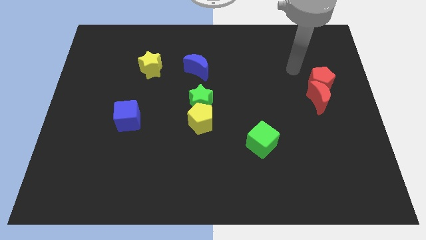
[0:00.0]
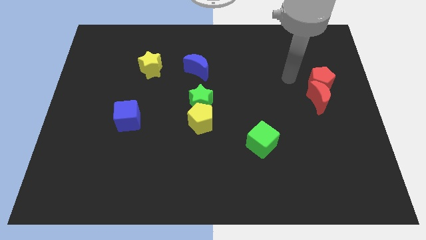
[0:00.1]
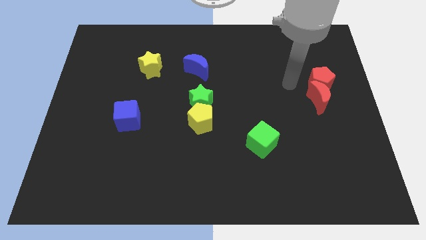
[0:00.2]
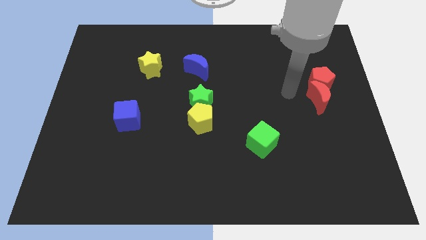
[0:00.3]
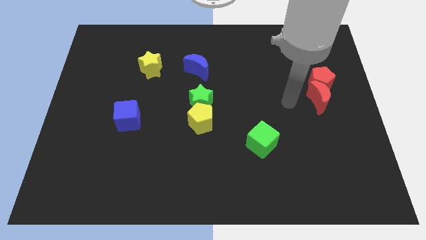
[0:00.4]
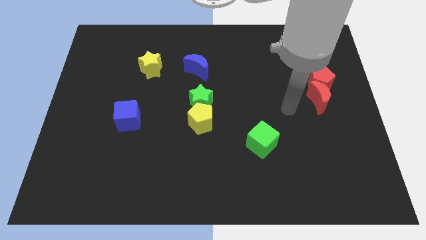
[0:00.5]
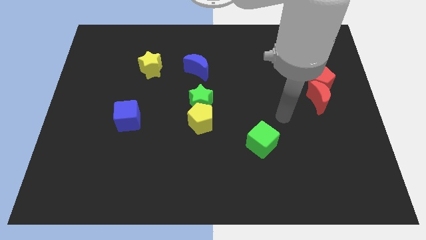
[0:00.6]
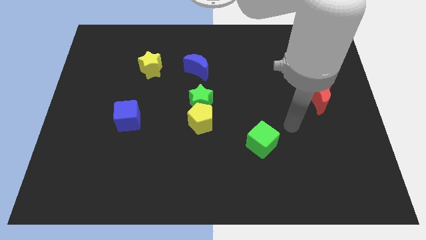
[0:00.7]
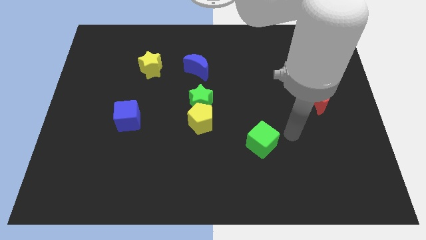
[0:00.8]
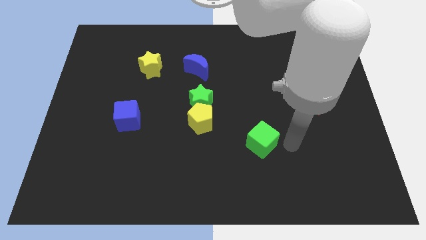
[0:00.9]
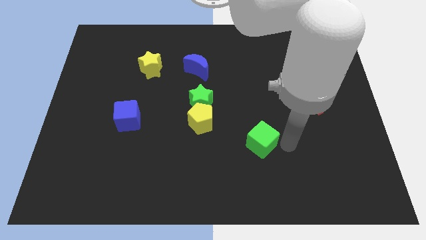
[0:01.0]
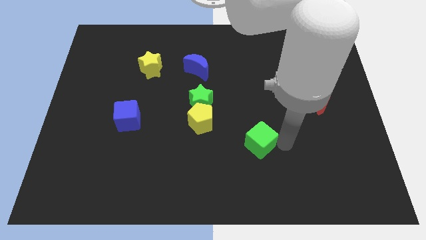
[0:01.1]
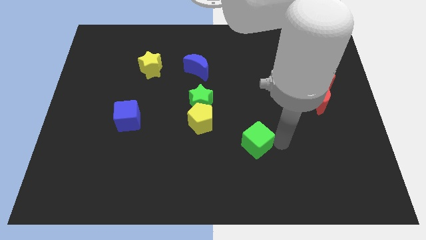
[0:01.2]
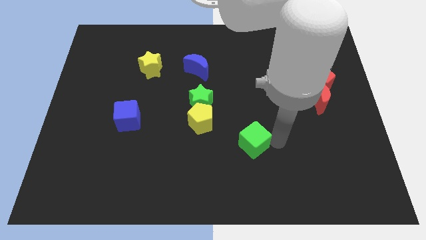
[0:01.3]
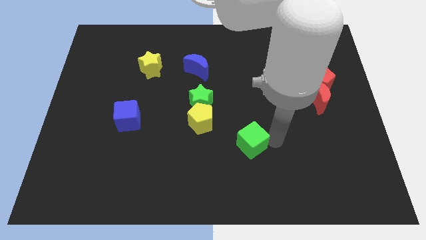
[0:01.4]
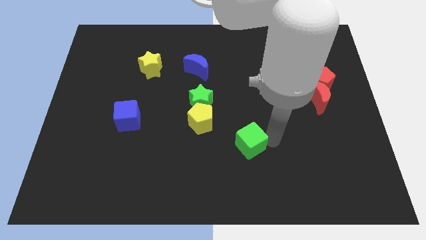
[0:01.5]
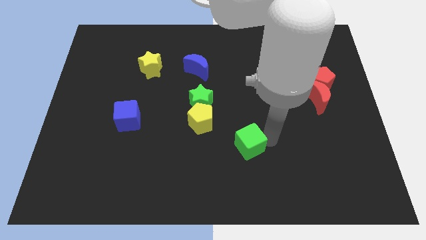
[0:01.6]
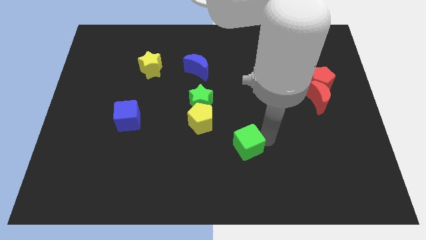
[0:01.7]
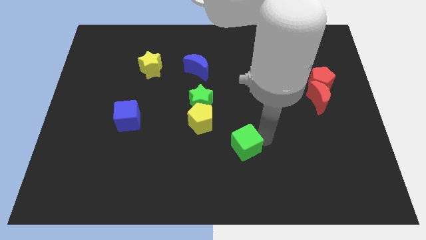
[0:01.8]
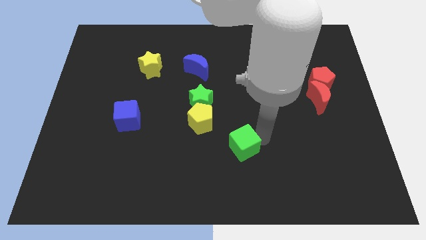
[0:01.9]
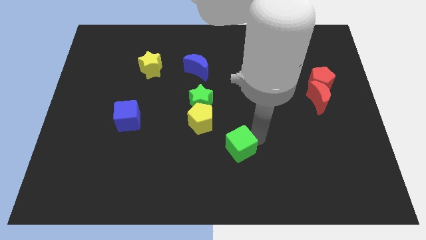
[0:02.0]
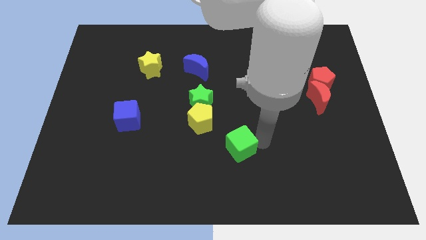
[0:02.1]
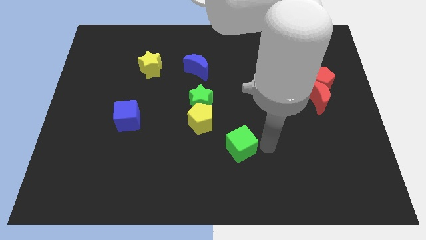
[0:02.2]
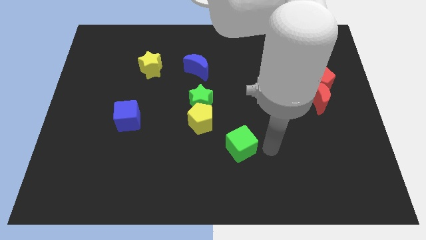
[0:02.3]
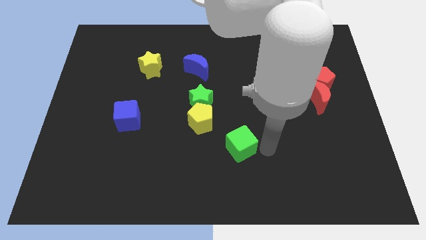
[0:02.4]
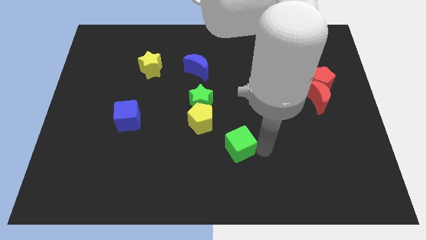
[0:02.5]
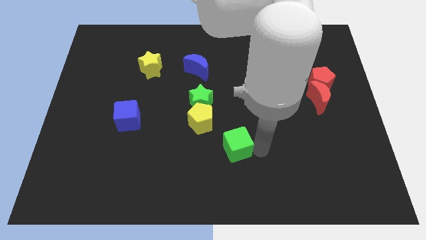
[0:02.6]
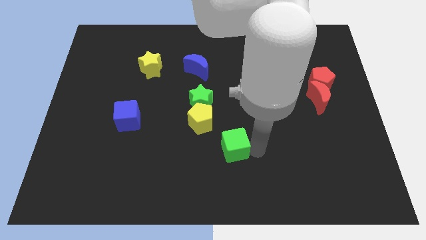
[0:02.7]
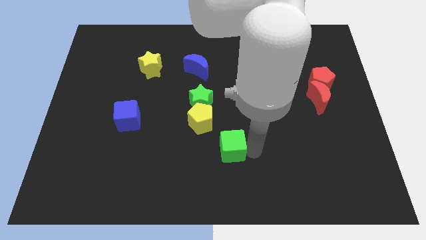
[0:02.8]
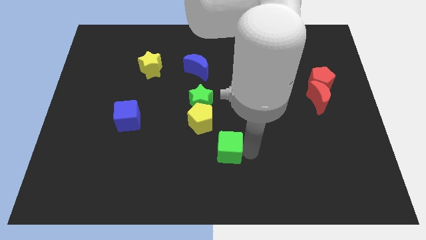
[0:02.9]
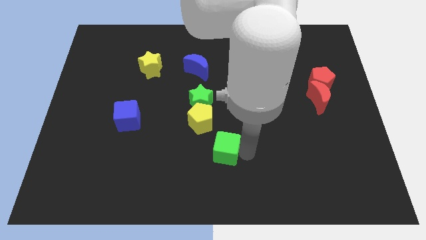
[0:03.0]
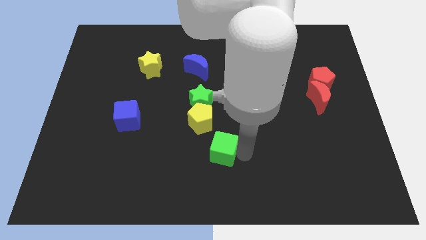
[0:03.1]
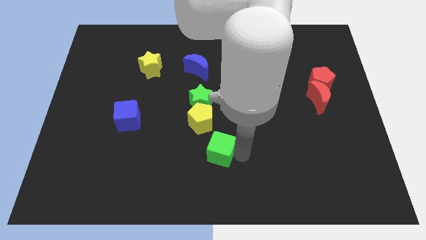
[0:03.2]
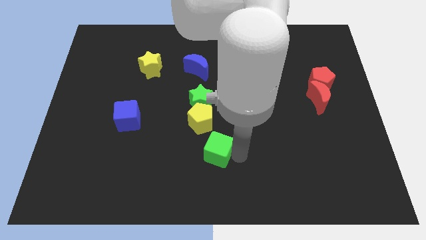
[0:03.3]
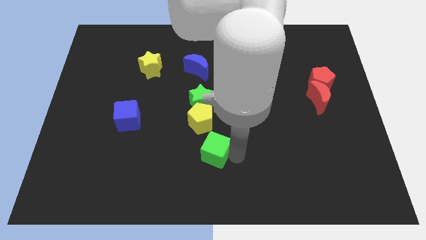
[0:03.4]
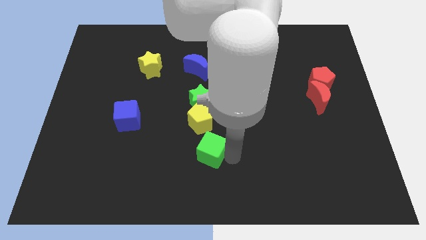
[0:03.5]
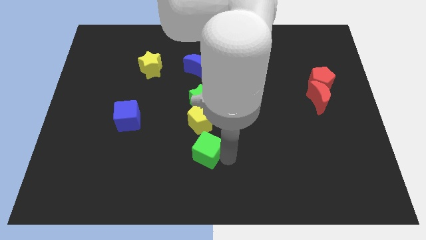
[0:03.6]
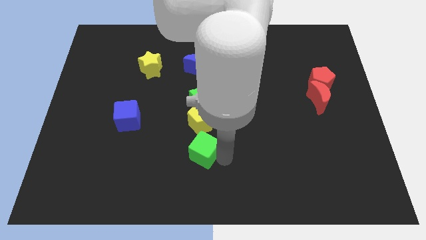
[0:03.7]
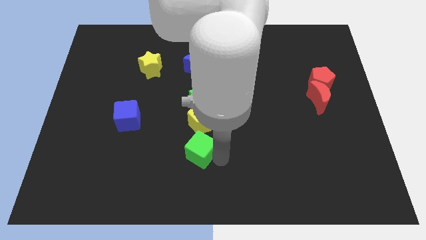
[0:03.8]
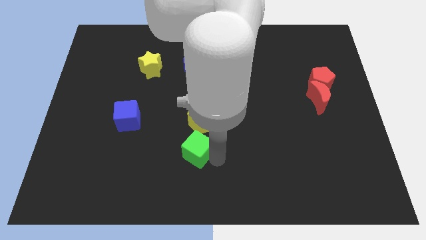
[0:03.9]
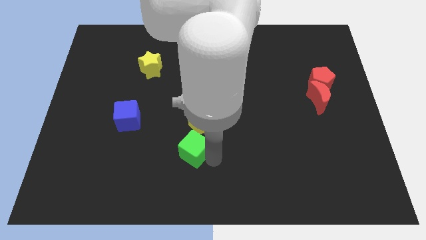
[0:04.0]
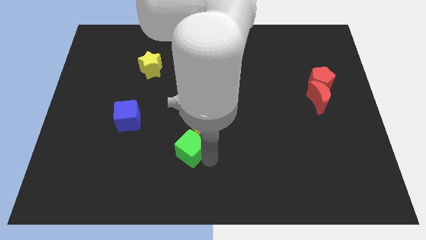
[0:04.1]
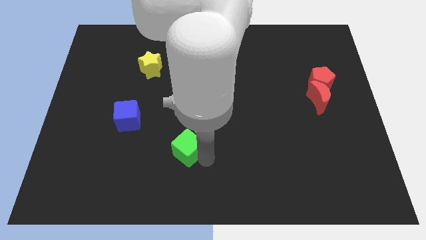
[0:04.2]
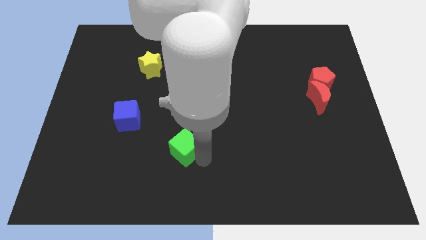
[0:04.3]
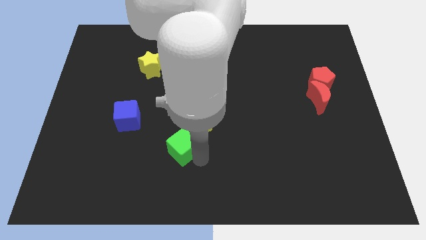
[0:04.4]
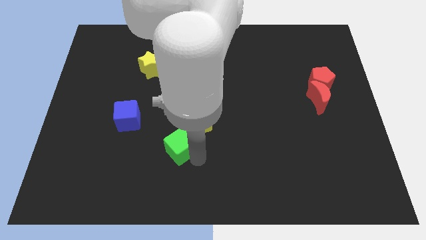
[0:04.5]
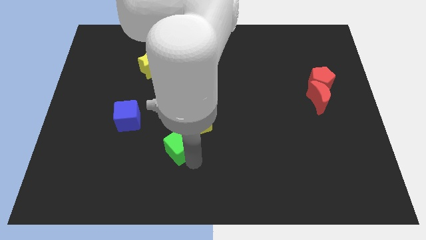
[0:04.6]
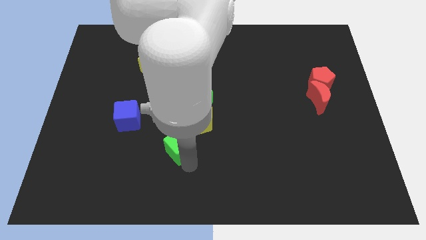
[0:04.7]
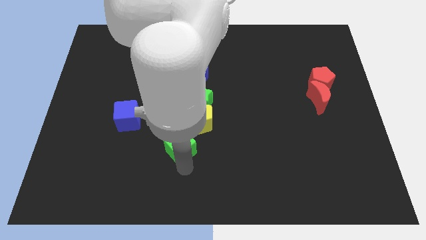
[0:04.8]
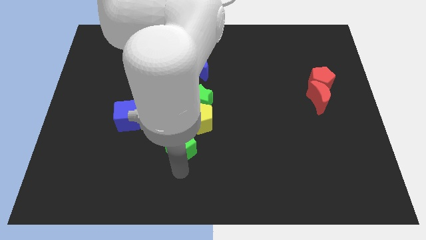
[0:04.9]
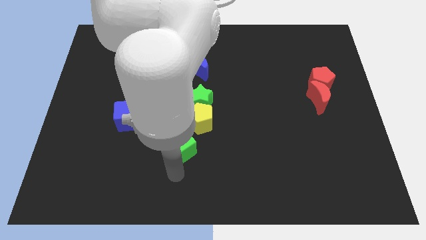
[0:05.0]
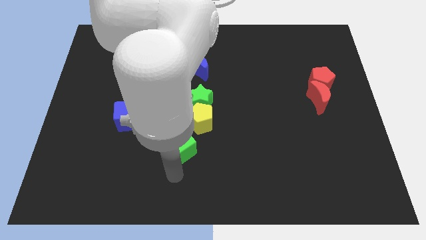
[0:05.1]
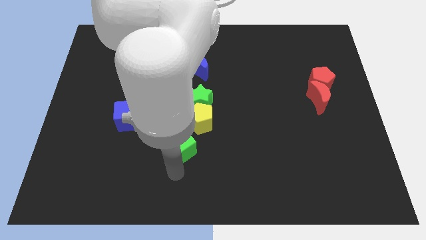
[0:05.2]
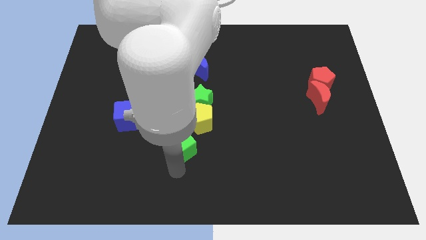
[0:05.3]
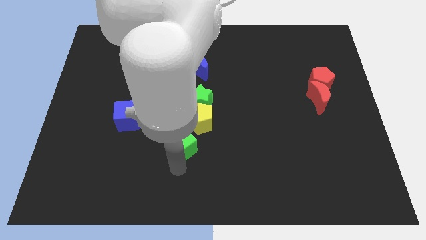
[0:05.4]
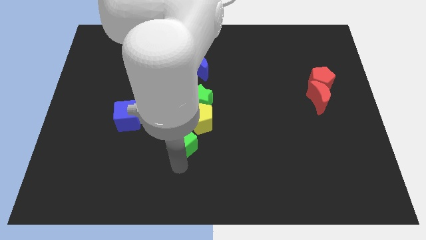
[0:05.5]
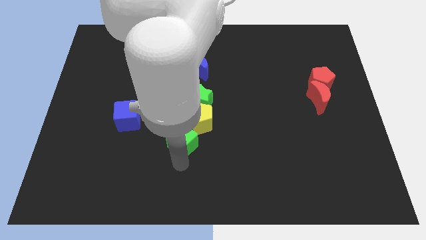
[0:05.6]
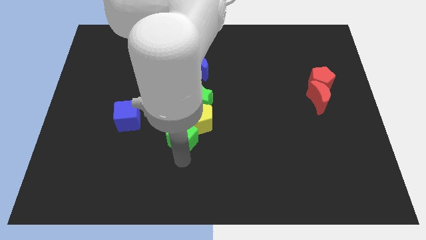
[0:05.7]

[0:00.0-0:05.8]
move the green cube just left of the yellow pentagon

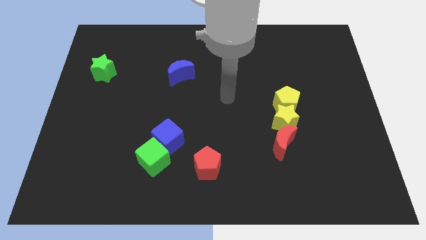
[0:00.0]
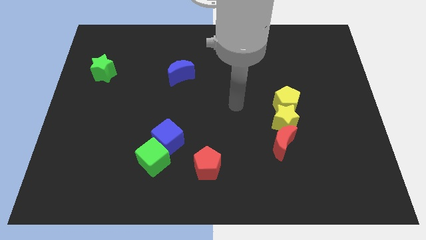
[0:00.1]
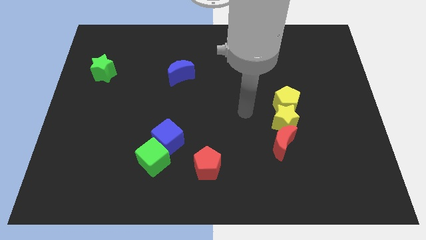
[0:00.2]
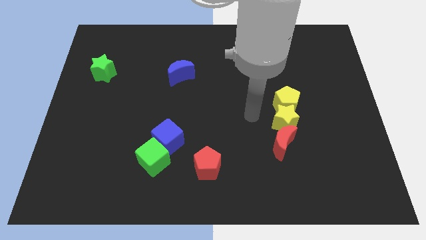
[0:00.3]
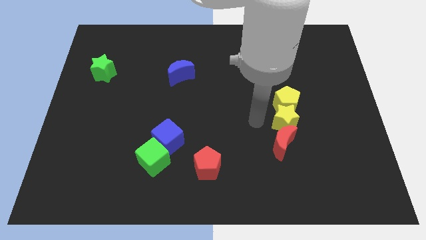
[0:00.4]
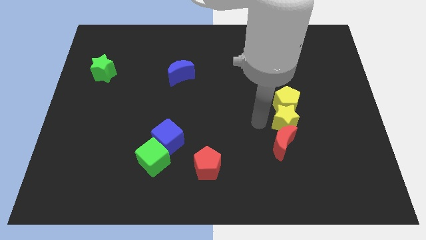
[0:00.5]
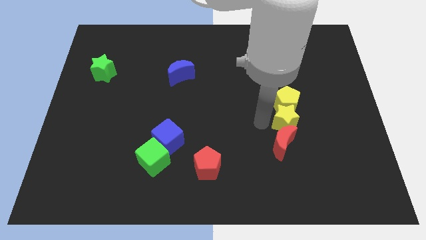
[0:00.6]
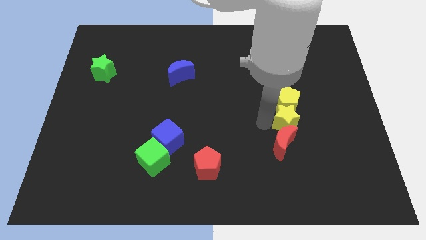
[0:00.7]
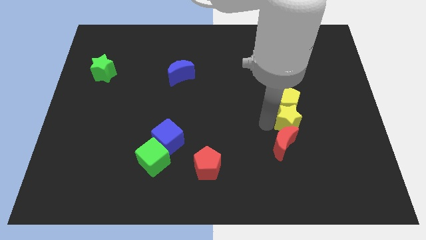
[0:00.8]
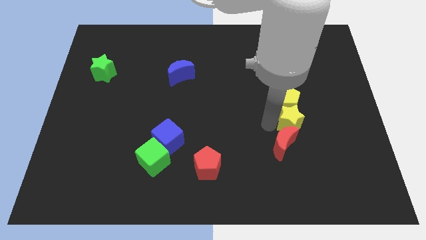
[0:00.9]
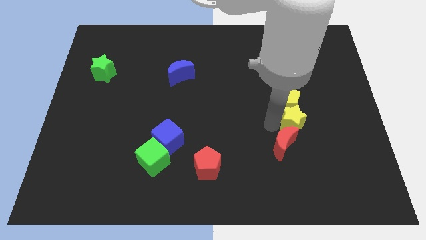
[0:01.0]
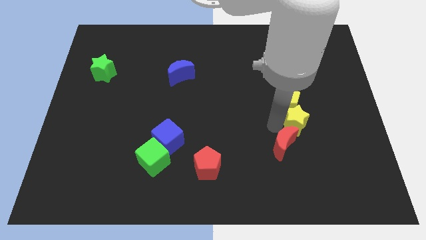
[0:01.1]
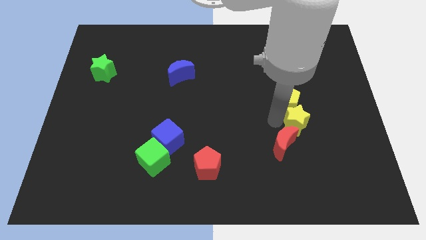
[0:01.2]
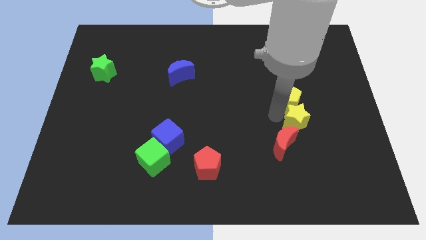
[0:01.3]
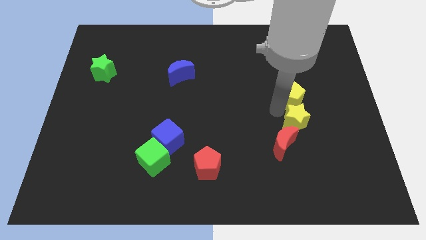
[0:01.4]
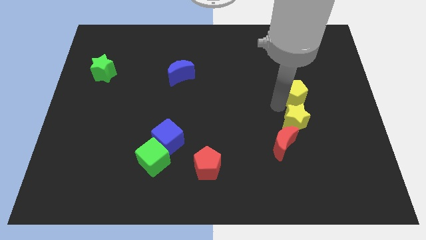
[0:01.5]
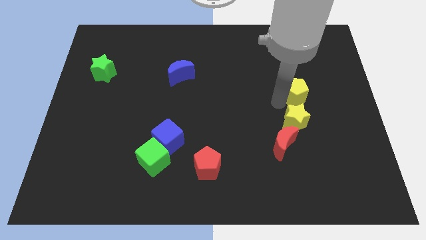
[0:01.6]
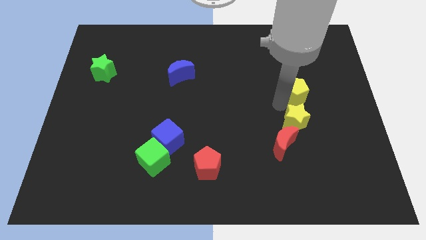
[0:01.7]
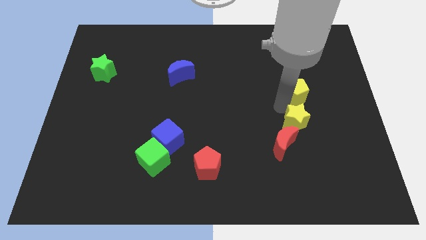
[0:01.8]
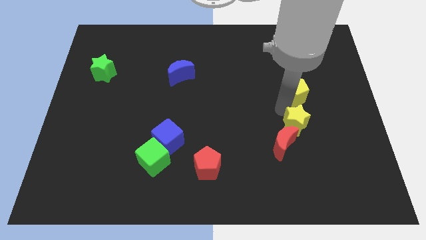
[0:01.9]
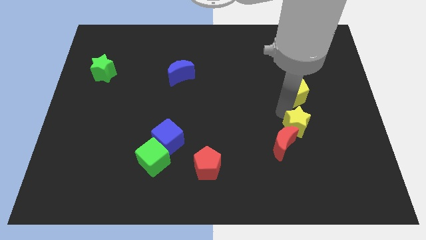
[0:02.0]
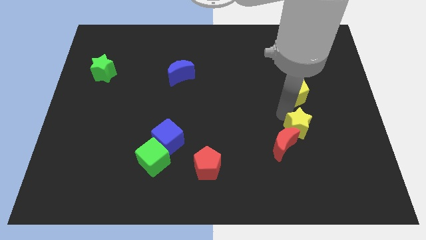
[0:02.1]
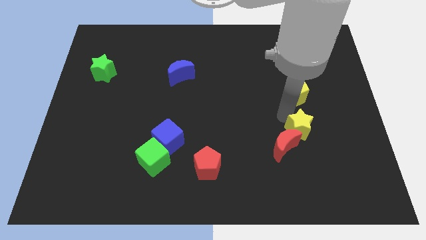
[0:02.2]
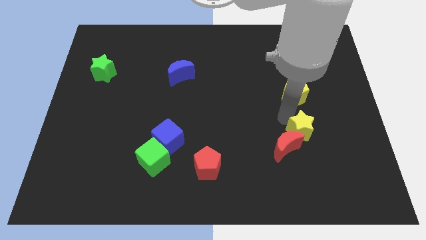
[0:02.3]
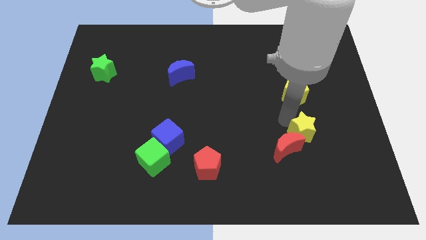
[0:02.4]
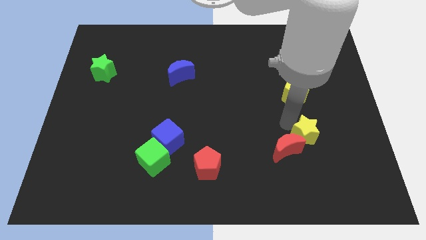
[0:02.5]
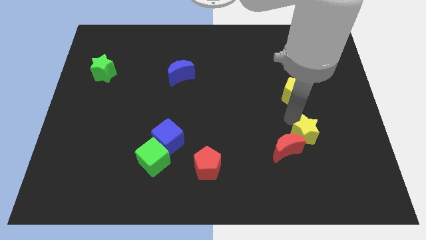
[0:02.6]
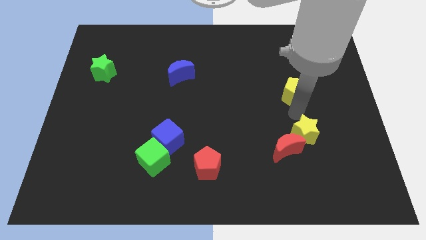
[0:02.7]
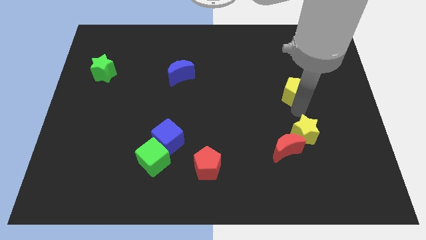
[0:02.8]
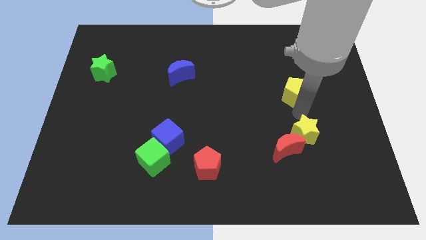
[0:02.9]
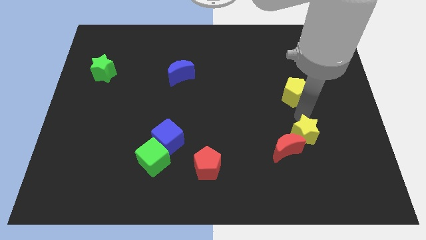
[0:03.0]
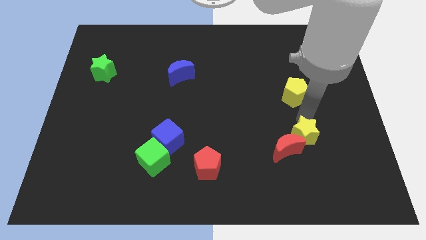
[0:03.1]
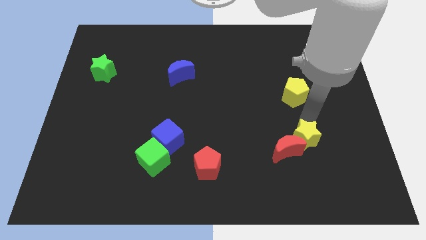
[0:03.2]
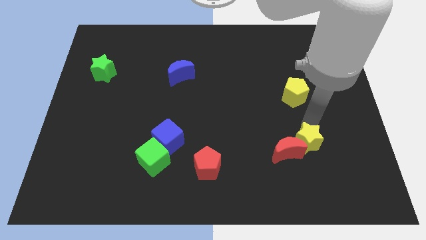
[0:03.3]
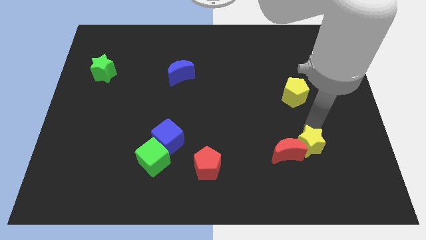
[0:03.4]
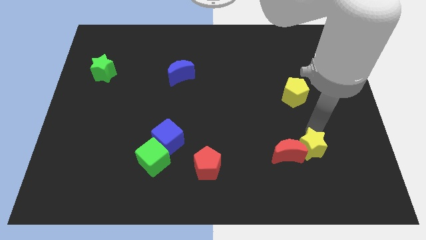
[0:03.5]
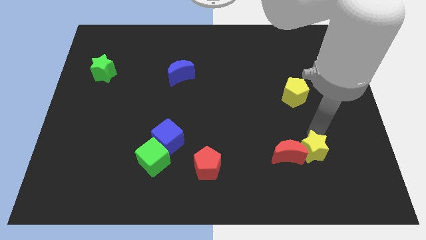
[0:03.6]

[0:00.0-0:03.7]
put the yellow star to the bottom right of the red moon
